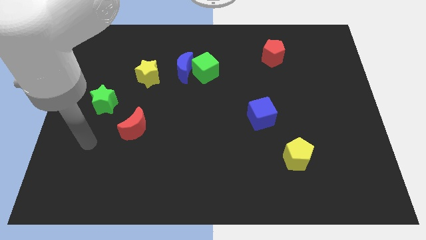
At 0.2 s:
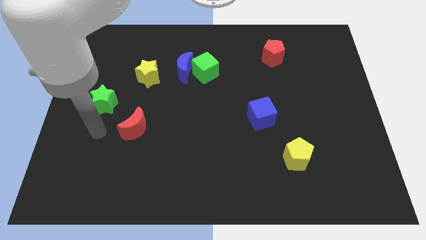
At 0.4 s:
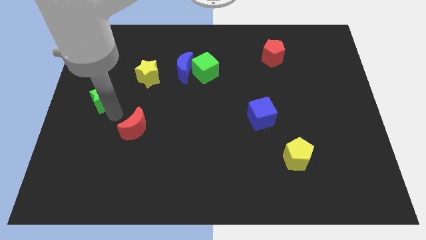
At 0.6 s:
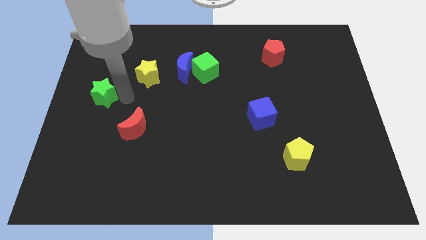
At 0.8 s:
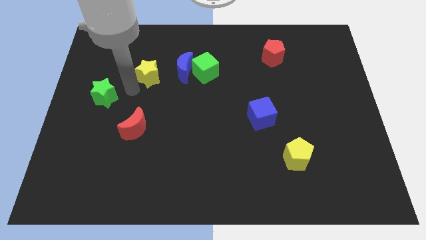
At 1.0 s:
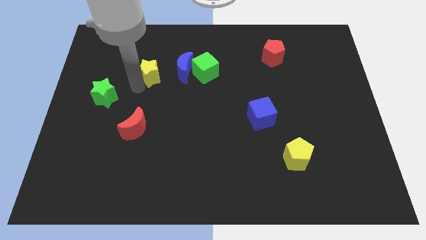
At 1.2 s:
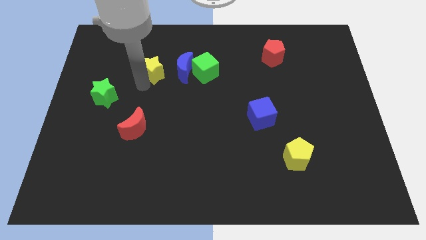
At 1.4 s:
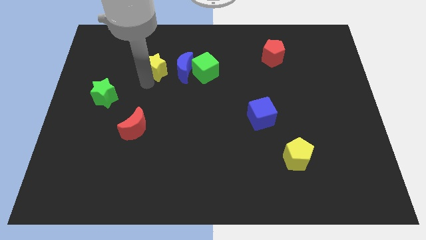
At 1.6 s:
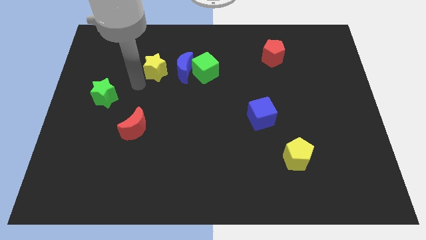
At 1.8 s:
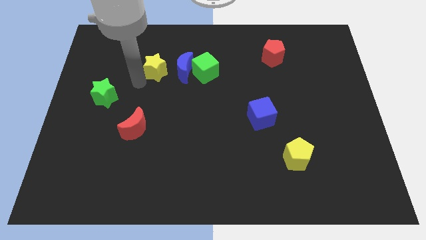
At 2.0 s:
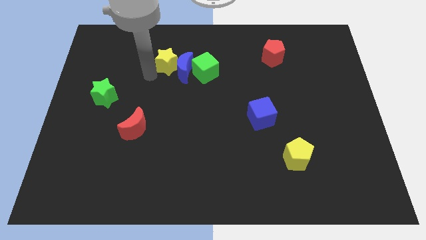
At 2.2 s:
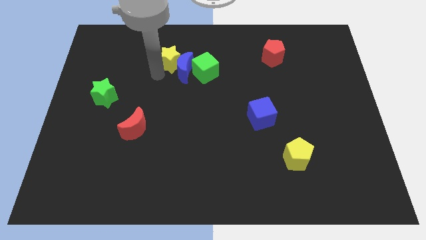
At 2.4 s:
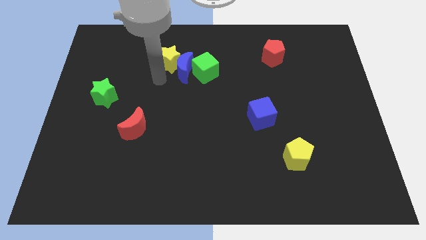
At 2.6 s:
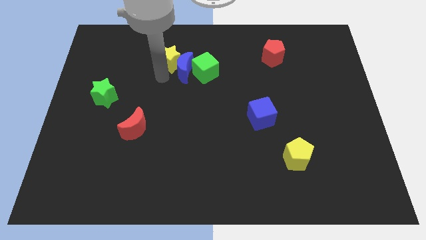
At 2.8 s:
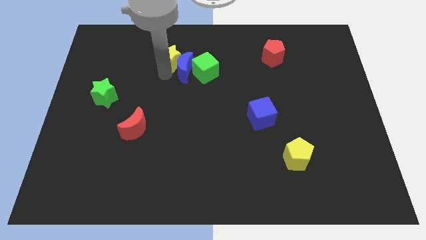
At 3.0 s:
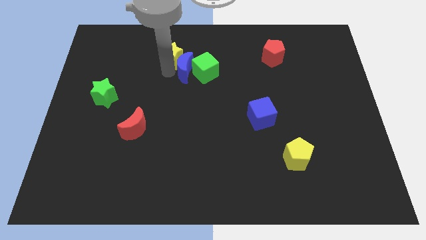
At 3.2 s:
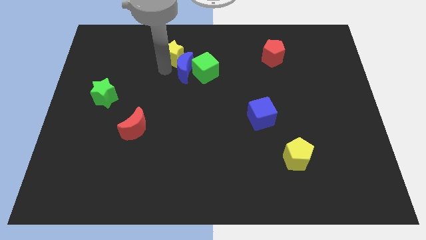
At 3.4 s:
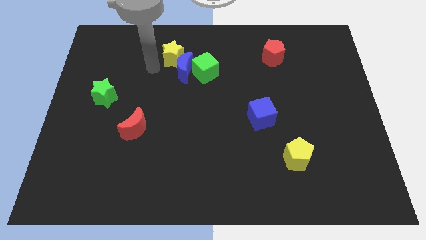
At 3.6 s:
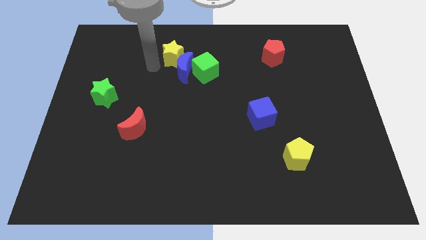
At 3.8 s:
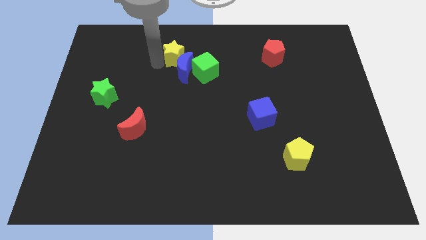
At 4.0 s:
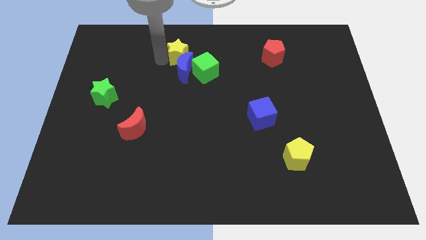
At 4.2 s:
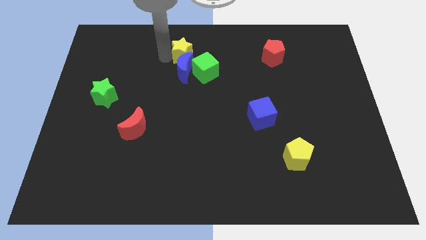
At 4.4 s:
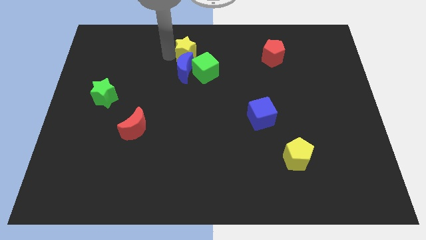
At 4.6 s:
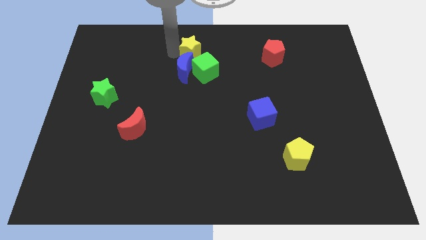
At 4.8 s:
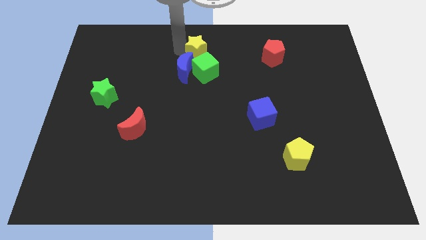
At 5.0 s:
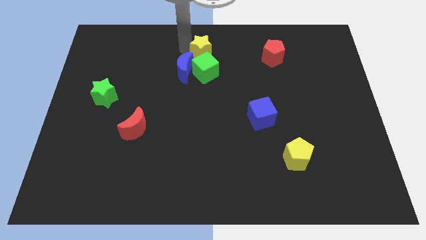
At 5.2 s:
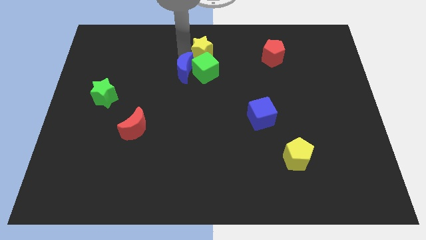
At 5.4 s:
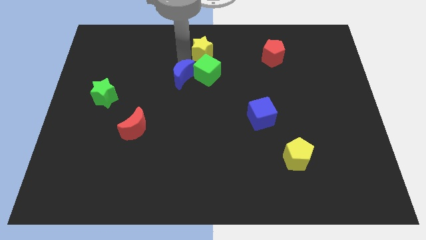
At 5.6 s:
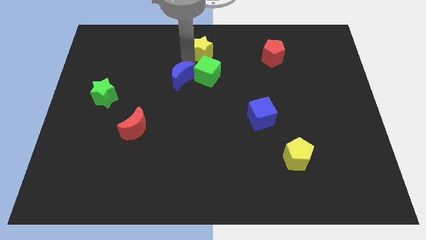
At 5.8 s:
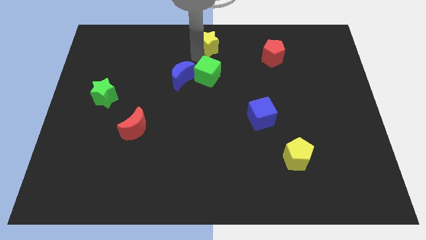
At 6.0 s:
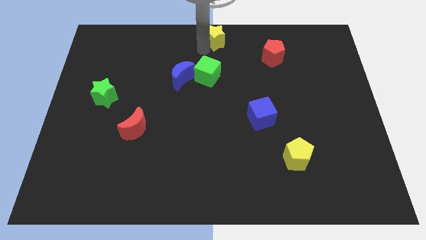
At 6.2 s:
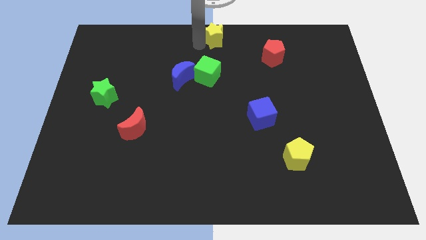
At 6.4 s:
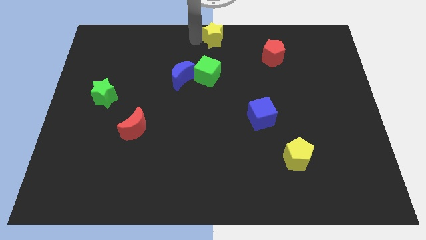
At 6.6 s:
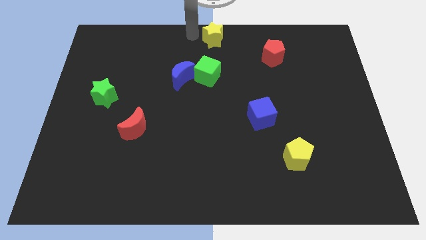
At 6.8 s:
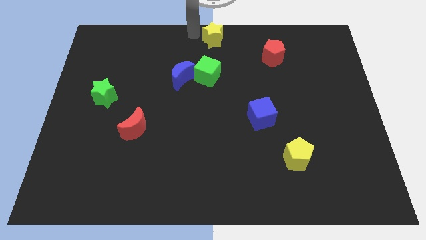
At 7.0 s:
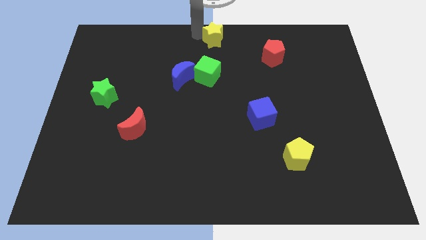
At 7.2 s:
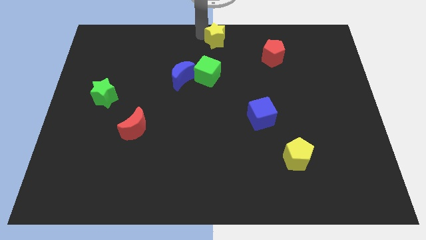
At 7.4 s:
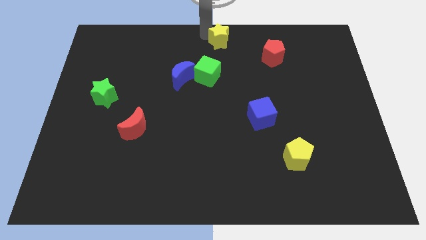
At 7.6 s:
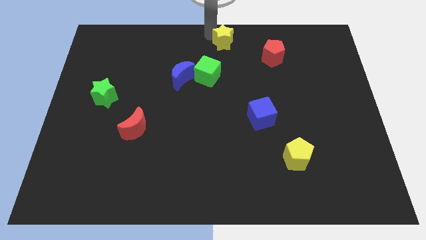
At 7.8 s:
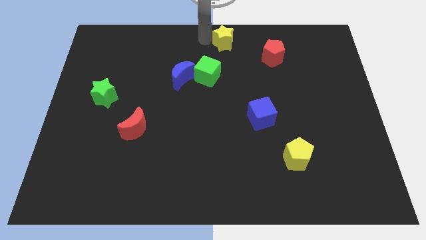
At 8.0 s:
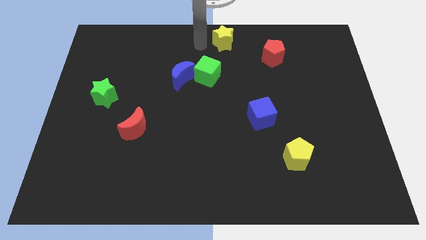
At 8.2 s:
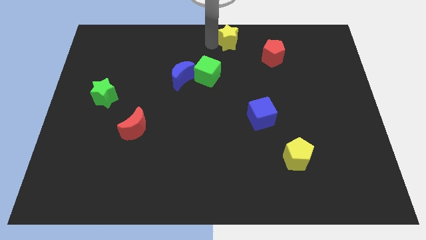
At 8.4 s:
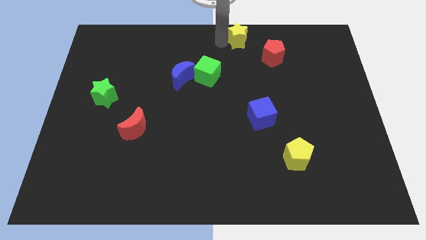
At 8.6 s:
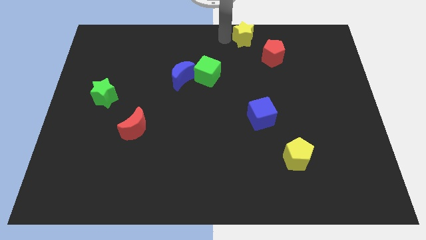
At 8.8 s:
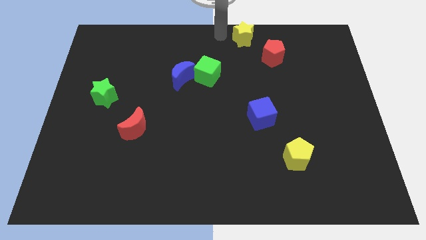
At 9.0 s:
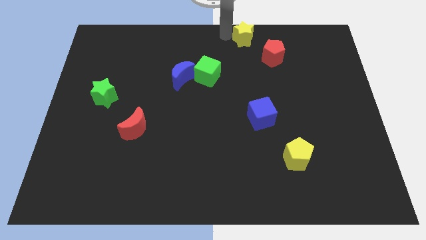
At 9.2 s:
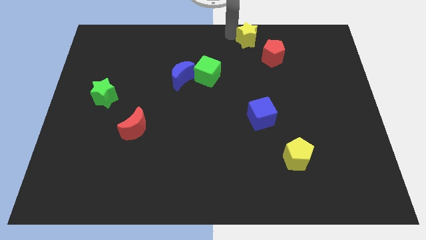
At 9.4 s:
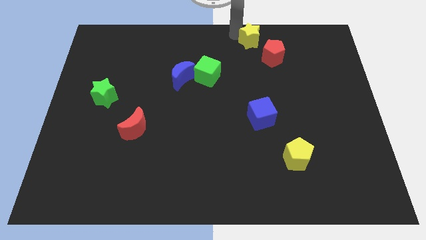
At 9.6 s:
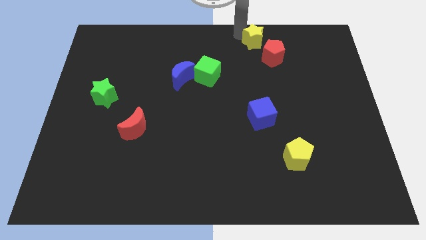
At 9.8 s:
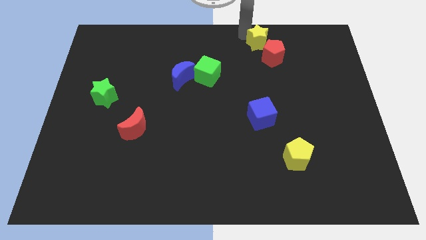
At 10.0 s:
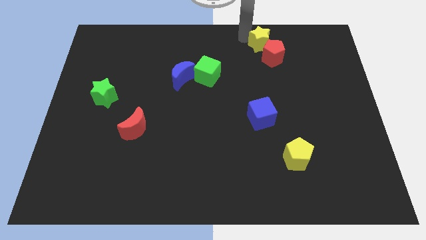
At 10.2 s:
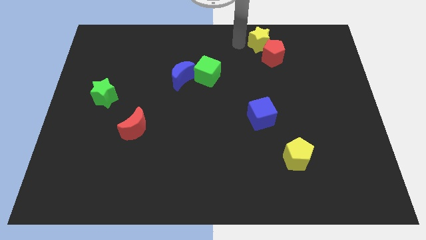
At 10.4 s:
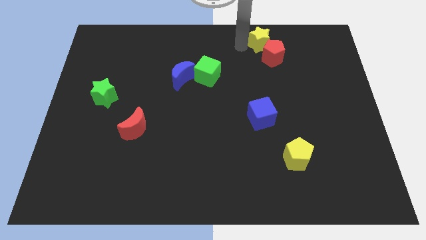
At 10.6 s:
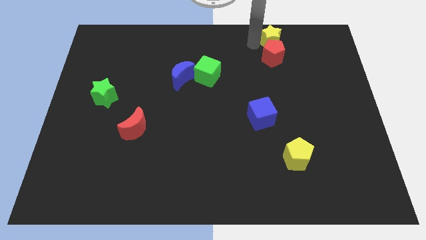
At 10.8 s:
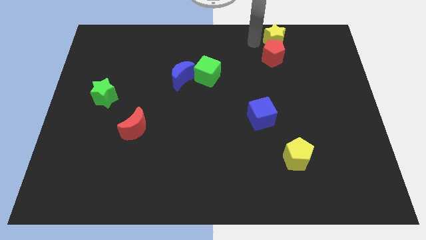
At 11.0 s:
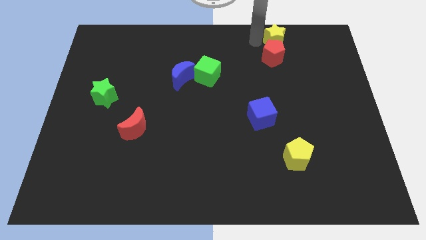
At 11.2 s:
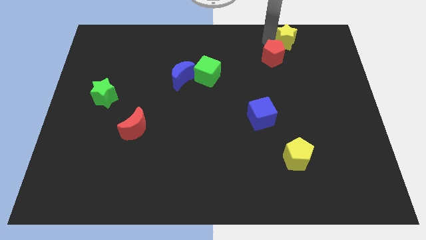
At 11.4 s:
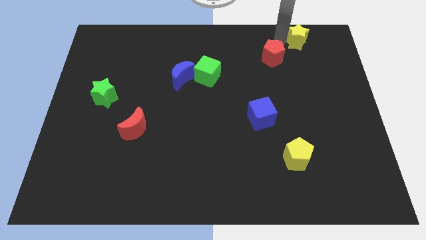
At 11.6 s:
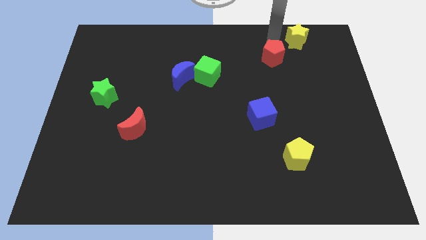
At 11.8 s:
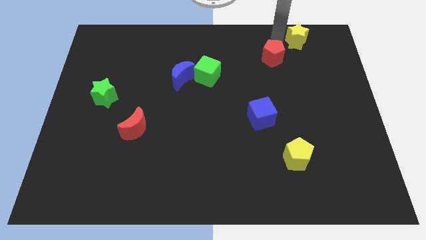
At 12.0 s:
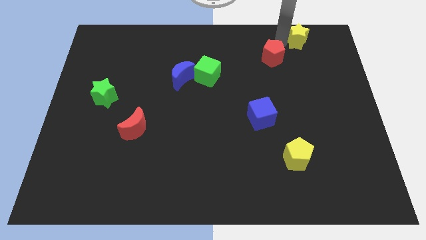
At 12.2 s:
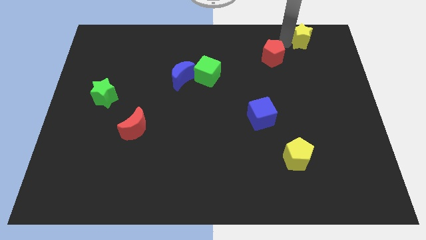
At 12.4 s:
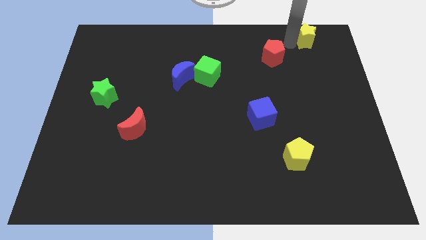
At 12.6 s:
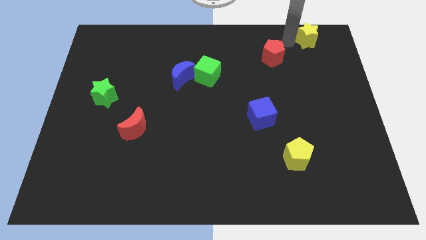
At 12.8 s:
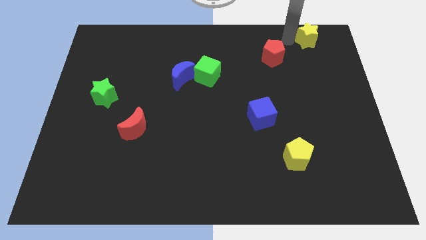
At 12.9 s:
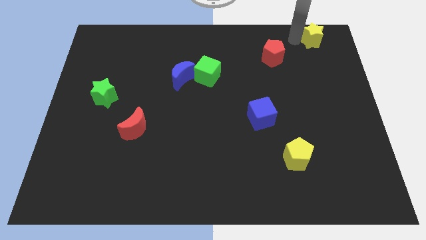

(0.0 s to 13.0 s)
push the yellow star to the top right of the board

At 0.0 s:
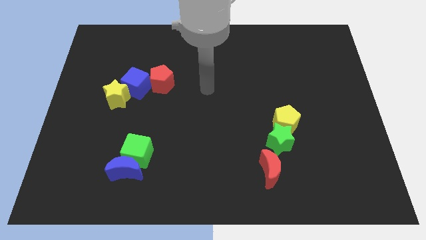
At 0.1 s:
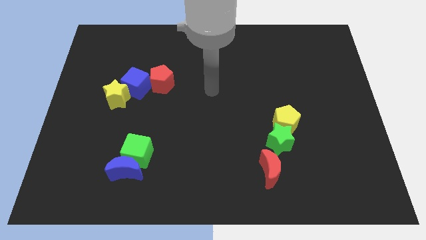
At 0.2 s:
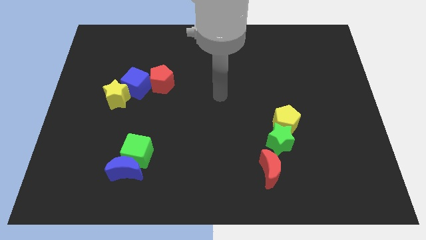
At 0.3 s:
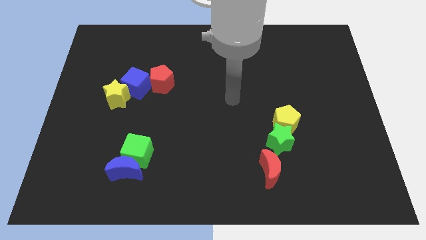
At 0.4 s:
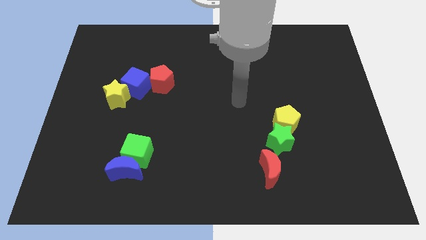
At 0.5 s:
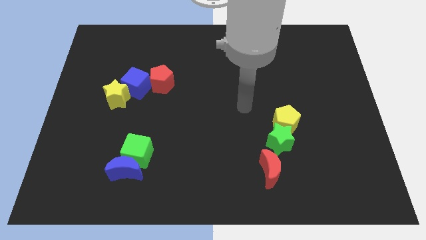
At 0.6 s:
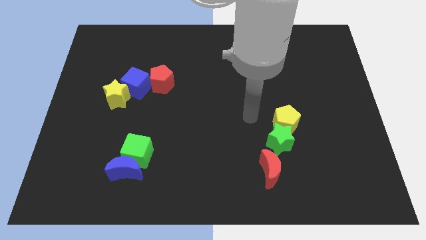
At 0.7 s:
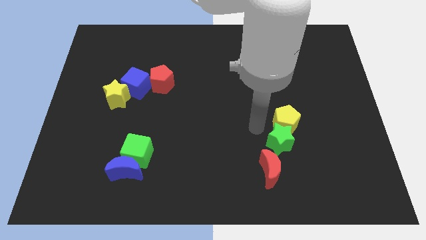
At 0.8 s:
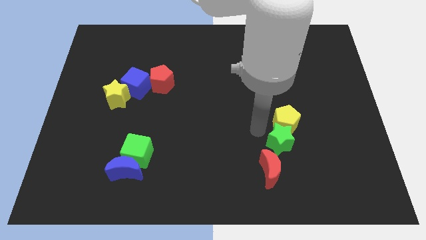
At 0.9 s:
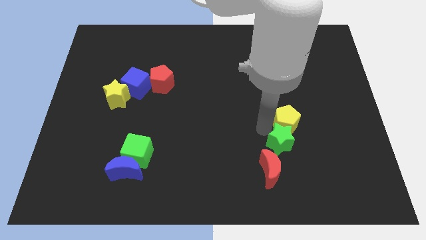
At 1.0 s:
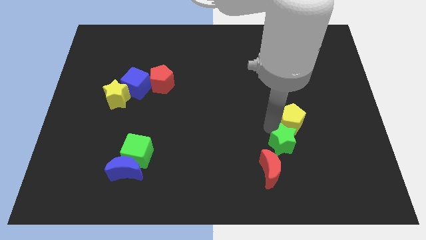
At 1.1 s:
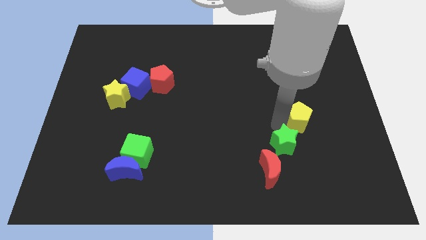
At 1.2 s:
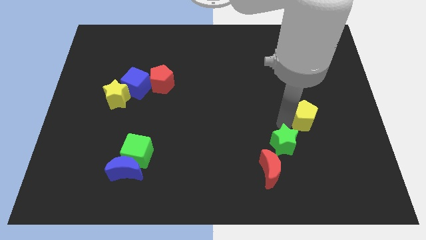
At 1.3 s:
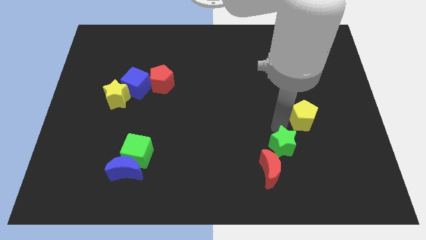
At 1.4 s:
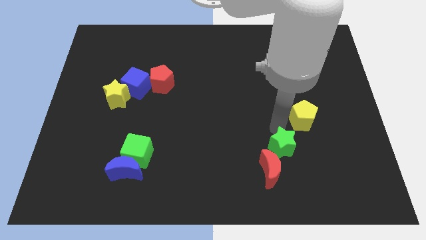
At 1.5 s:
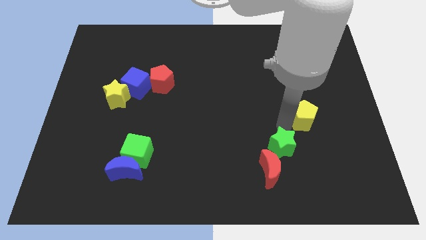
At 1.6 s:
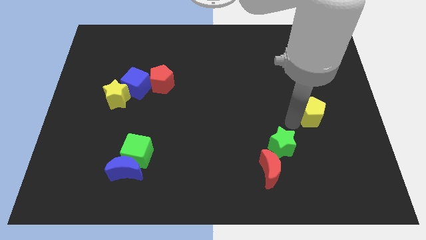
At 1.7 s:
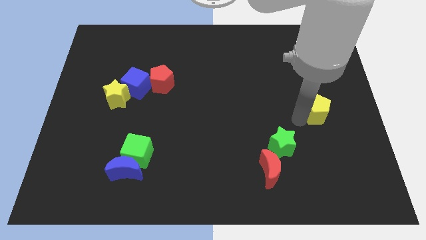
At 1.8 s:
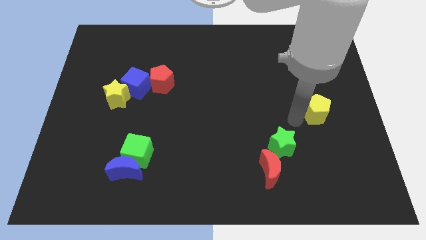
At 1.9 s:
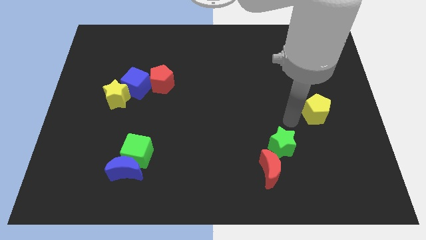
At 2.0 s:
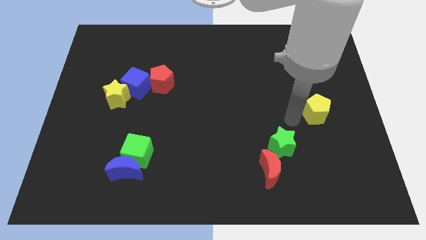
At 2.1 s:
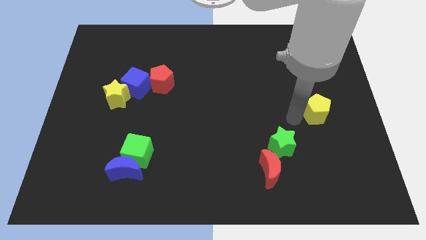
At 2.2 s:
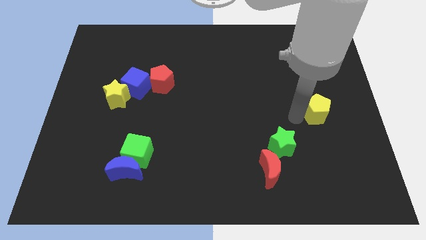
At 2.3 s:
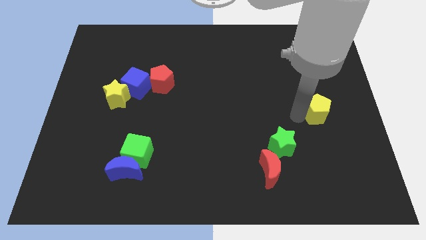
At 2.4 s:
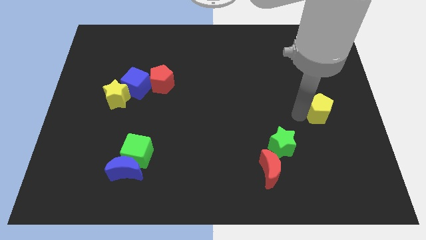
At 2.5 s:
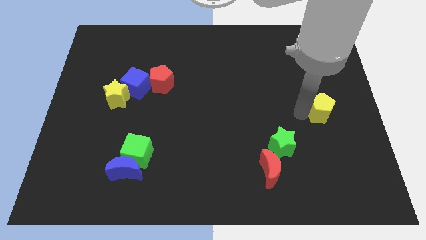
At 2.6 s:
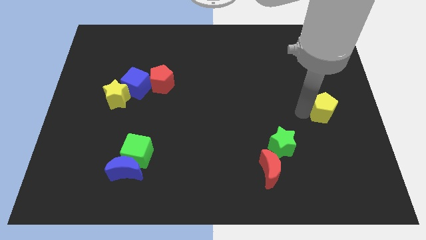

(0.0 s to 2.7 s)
move the yellow pentagon to the right side of the board
